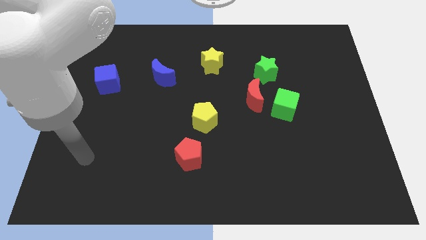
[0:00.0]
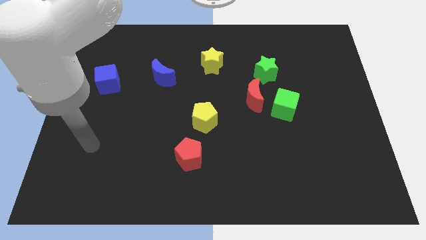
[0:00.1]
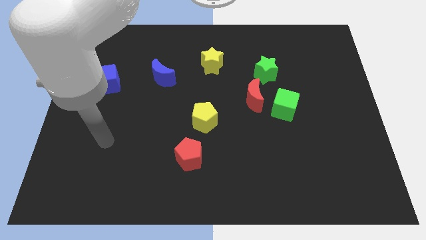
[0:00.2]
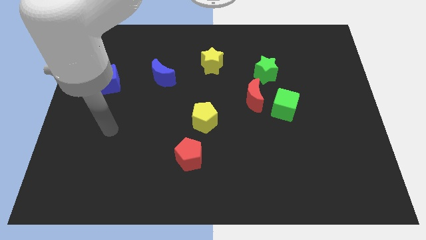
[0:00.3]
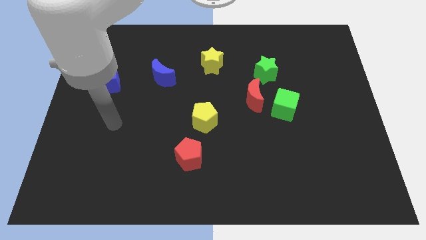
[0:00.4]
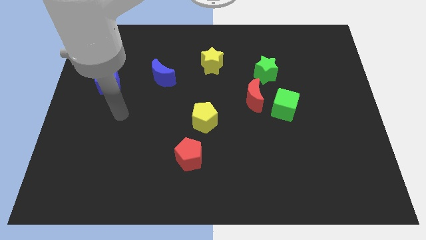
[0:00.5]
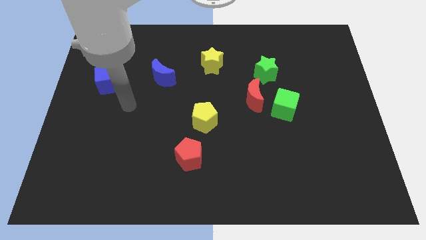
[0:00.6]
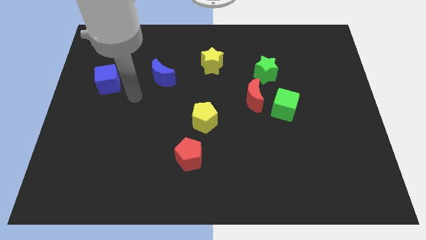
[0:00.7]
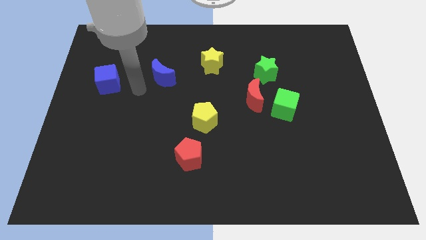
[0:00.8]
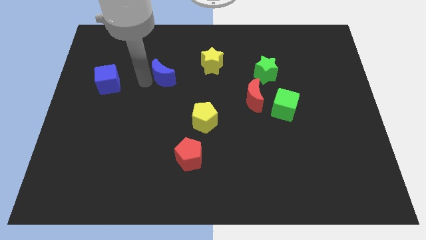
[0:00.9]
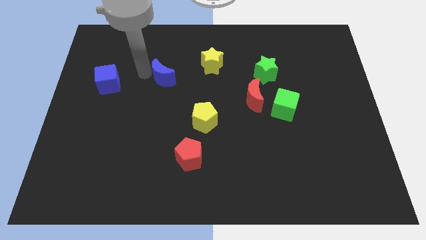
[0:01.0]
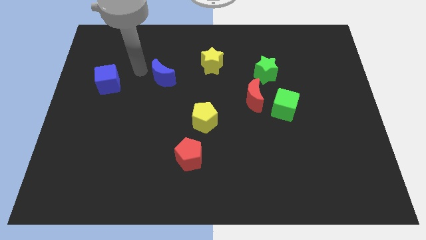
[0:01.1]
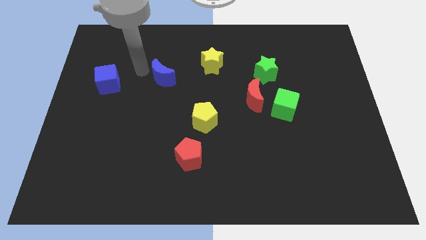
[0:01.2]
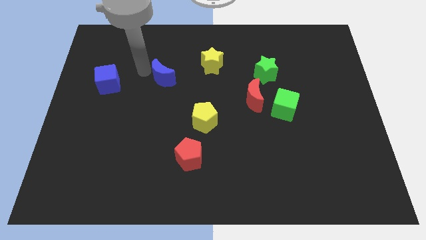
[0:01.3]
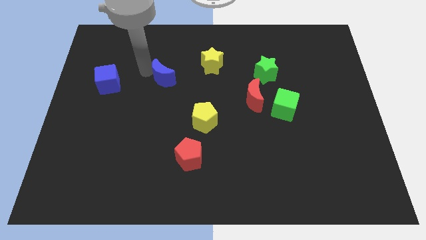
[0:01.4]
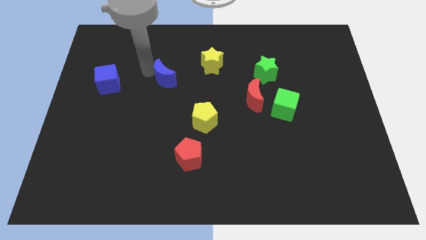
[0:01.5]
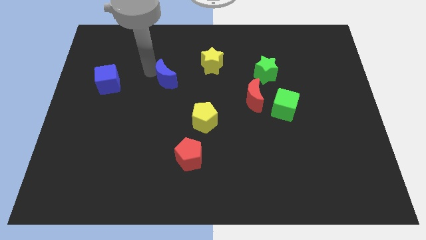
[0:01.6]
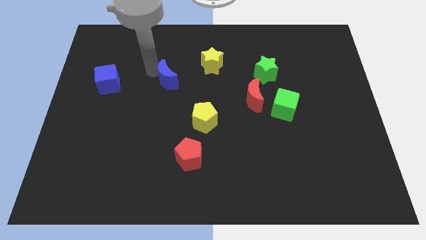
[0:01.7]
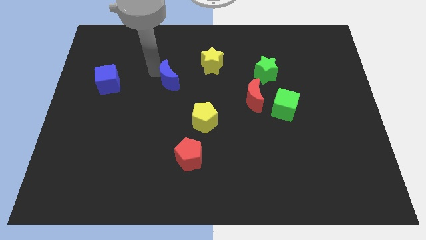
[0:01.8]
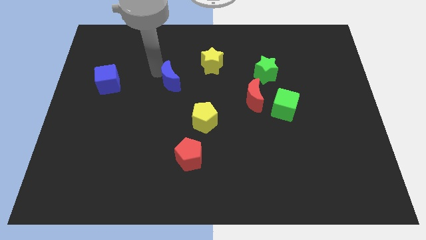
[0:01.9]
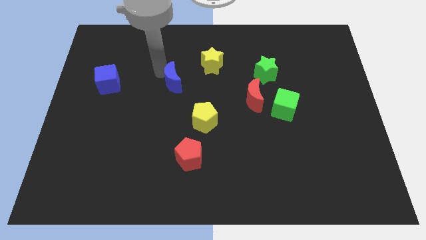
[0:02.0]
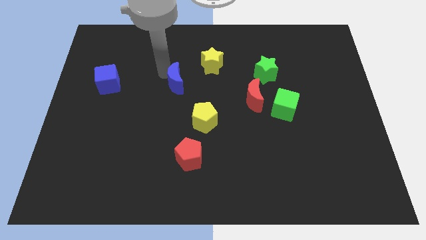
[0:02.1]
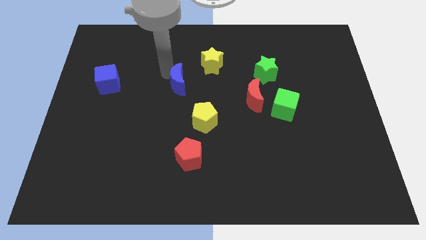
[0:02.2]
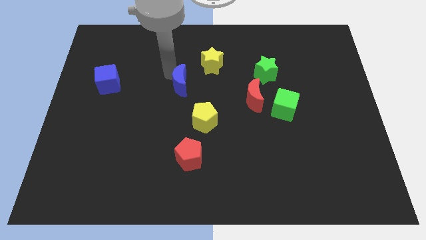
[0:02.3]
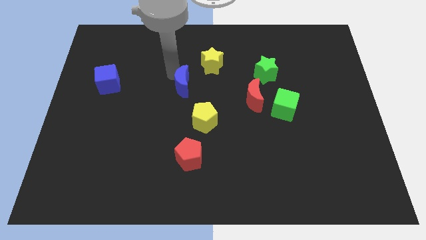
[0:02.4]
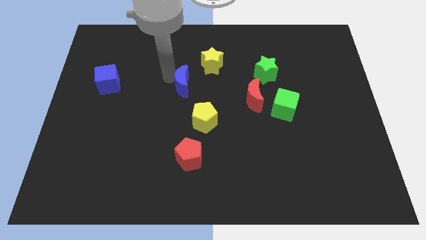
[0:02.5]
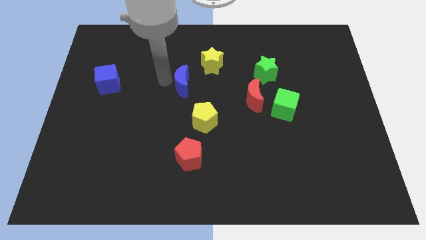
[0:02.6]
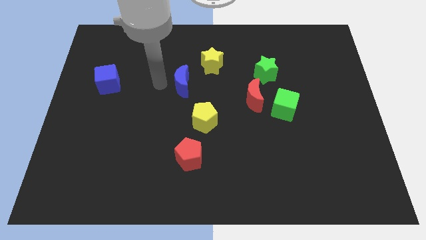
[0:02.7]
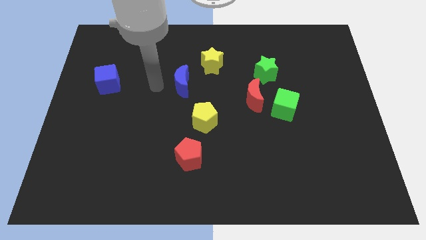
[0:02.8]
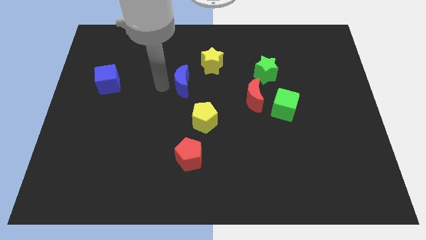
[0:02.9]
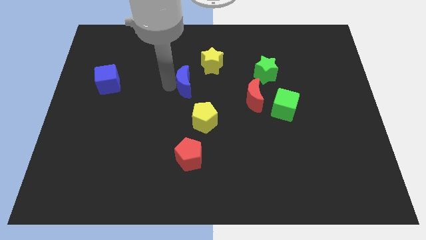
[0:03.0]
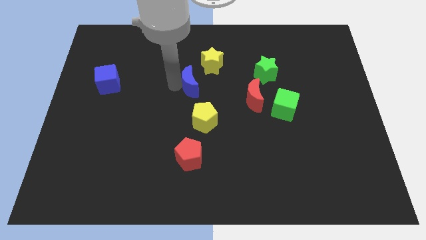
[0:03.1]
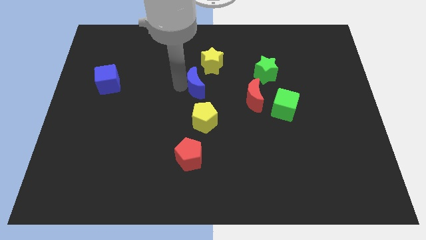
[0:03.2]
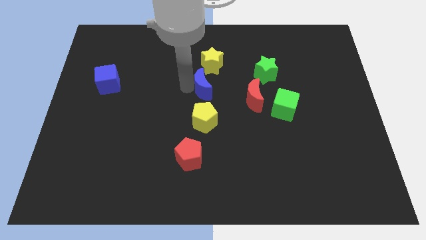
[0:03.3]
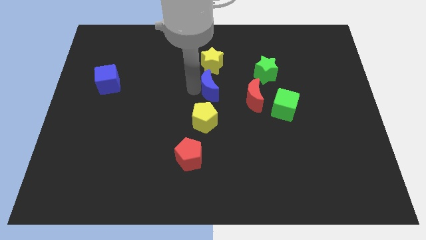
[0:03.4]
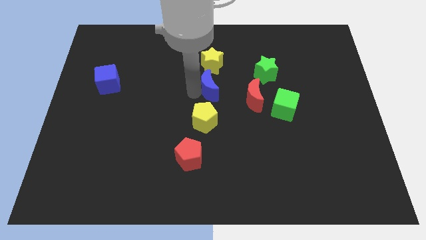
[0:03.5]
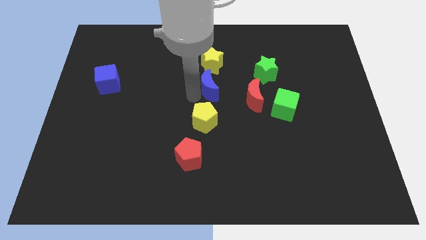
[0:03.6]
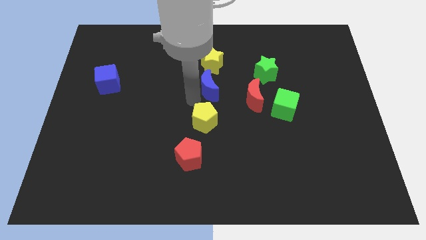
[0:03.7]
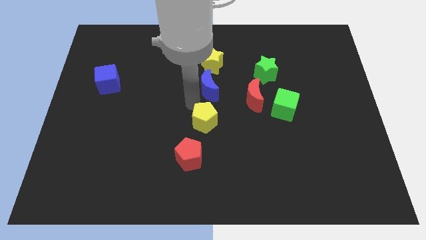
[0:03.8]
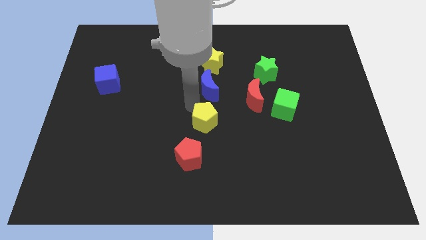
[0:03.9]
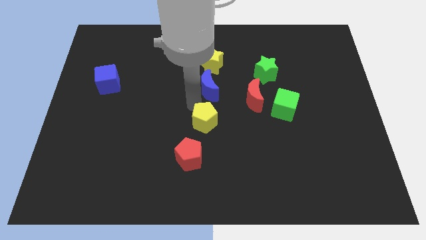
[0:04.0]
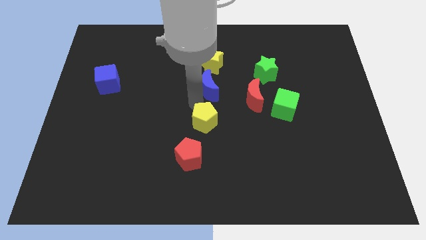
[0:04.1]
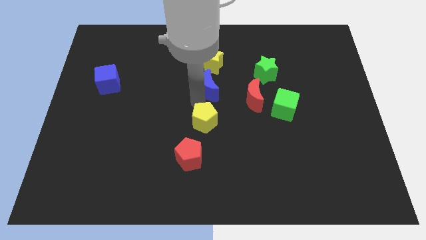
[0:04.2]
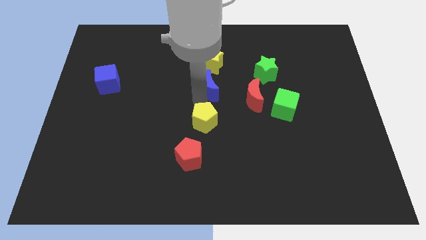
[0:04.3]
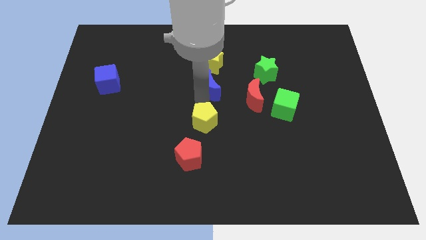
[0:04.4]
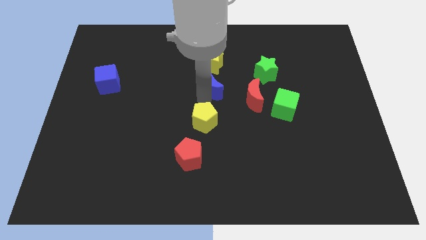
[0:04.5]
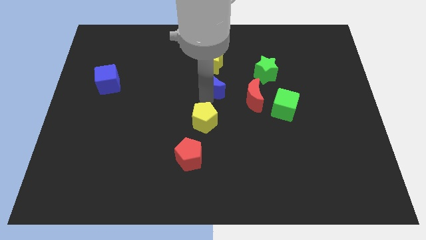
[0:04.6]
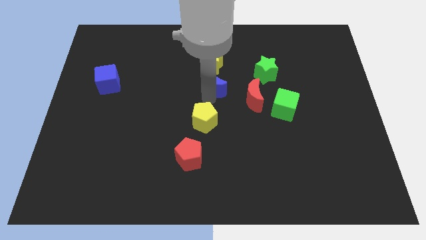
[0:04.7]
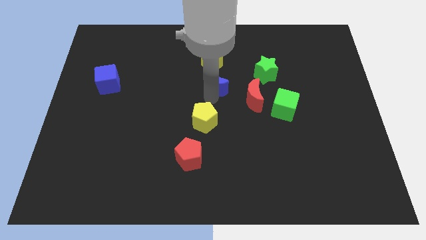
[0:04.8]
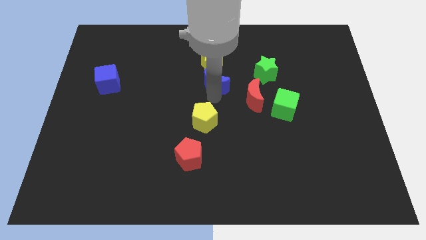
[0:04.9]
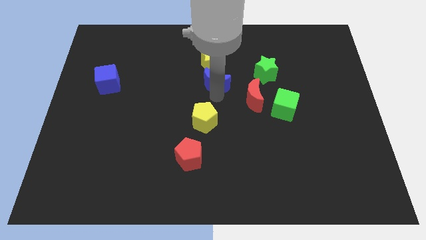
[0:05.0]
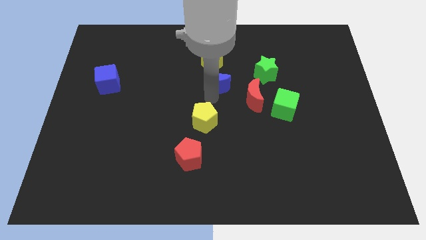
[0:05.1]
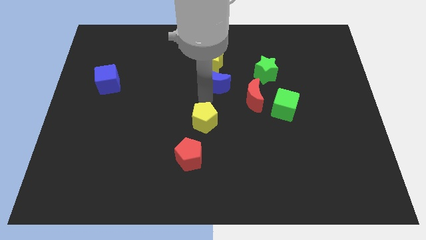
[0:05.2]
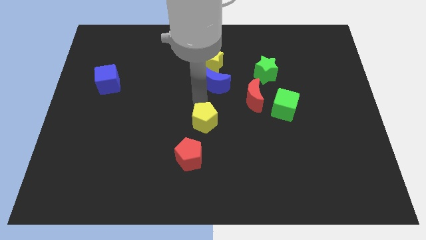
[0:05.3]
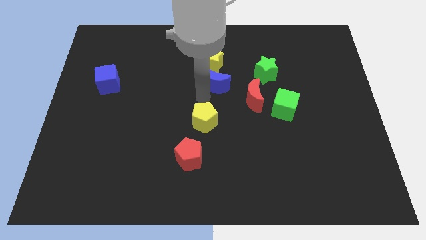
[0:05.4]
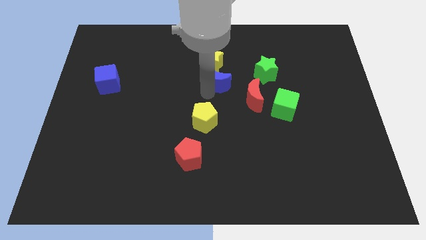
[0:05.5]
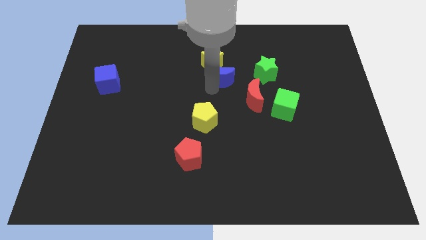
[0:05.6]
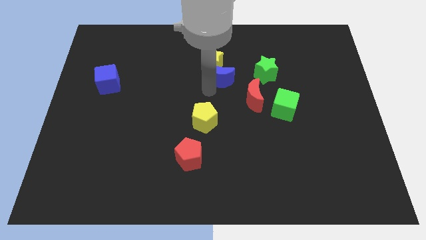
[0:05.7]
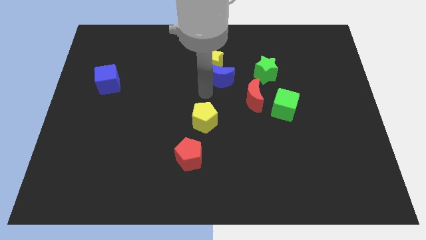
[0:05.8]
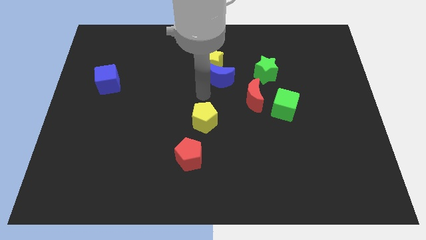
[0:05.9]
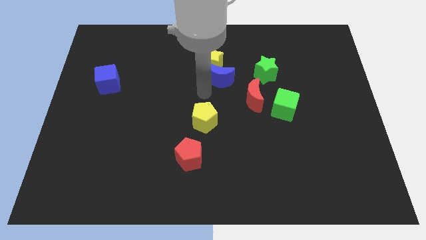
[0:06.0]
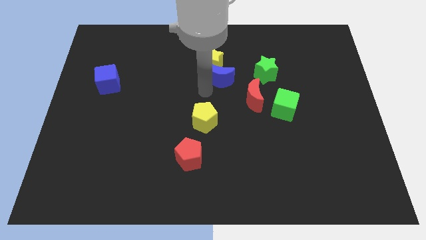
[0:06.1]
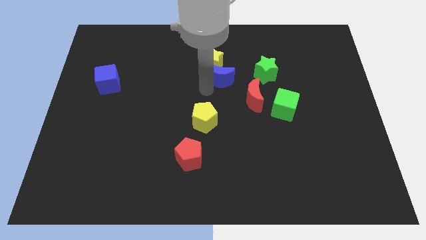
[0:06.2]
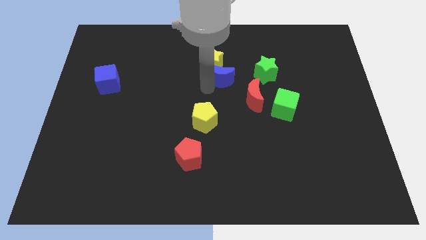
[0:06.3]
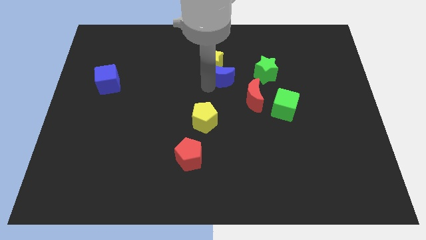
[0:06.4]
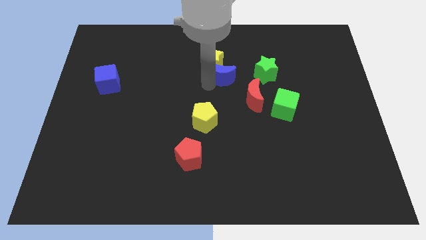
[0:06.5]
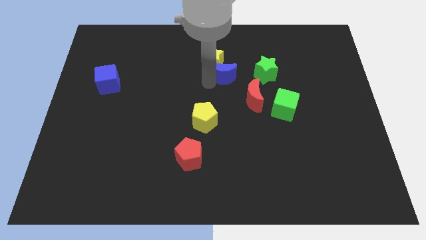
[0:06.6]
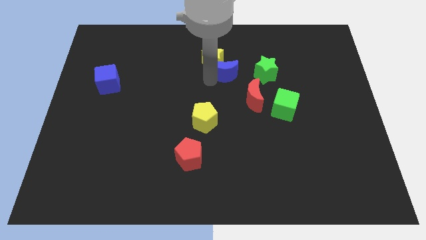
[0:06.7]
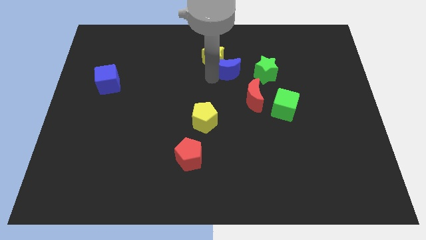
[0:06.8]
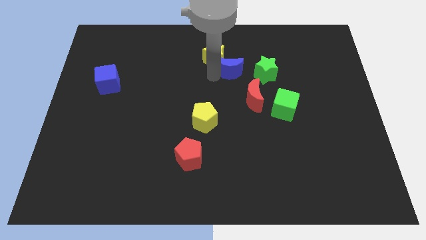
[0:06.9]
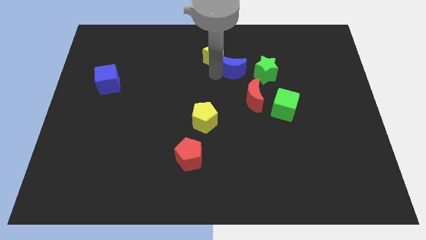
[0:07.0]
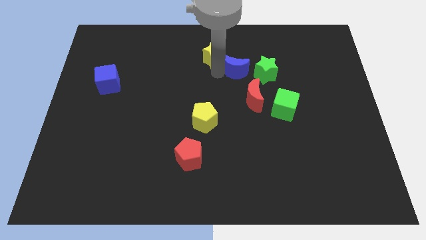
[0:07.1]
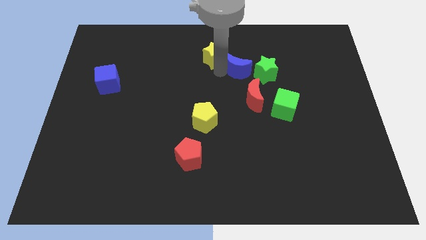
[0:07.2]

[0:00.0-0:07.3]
slide the blue moon diagonally up and to the left of the green star

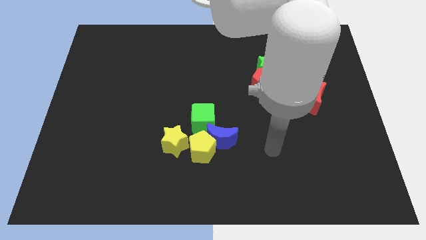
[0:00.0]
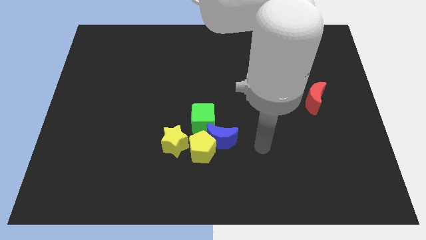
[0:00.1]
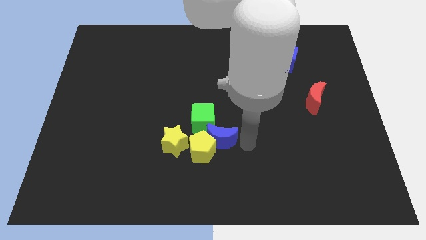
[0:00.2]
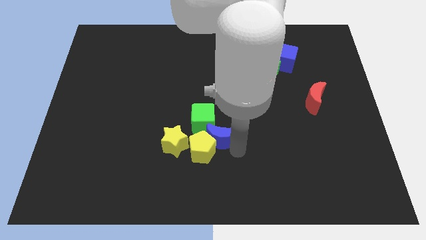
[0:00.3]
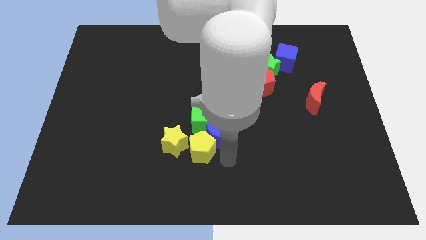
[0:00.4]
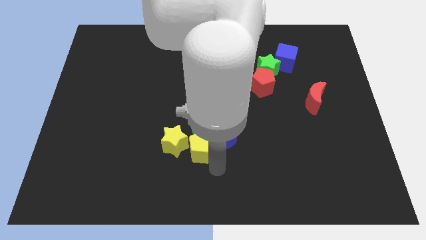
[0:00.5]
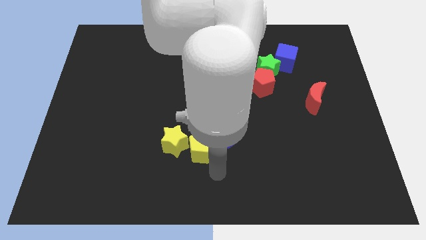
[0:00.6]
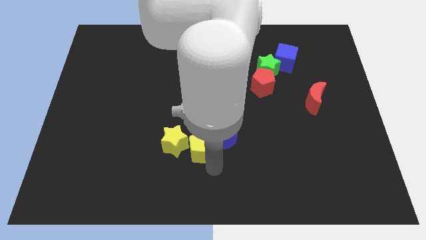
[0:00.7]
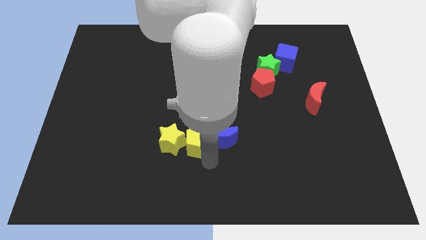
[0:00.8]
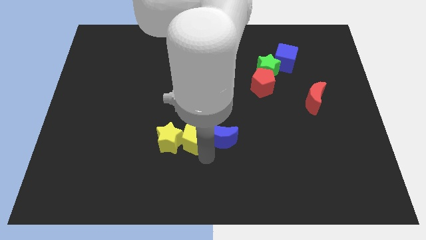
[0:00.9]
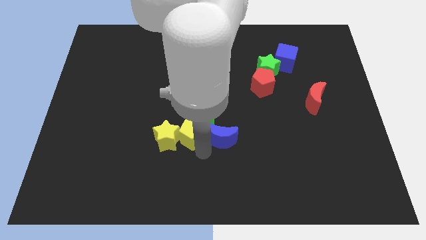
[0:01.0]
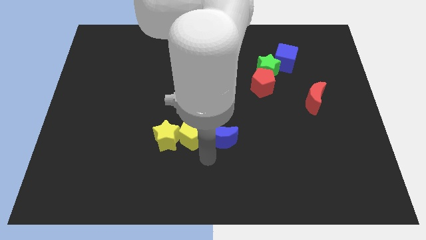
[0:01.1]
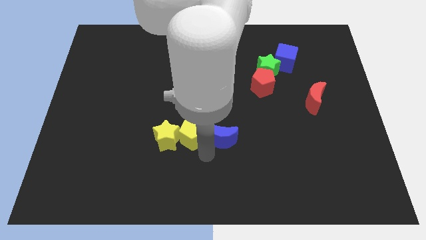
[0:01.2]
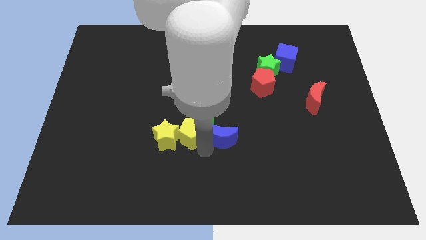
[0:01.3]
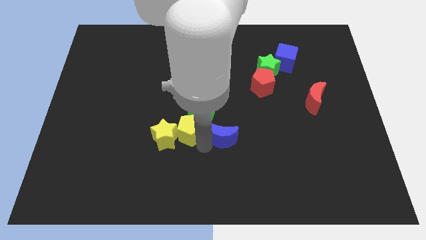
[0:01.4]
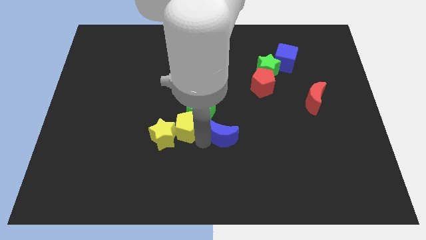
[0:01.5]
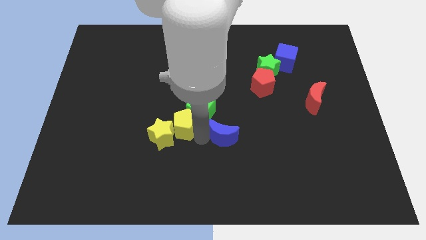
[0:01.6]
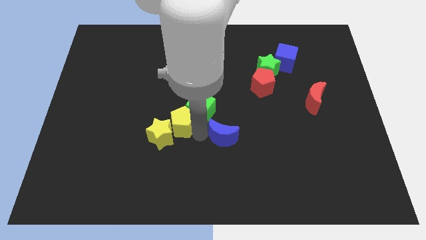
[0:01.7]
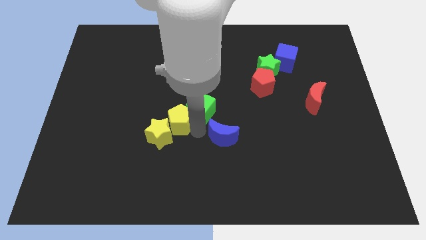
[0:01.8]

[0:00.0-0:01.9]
put the yellow pentagon to the top of the yellow star
